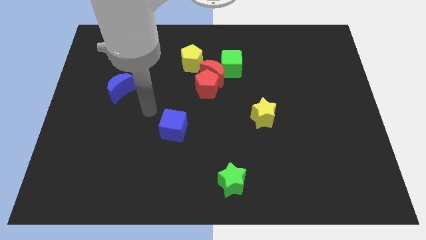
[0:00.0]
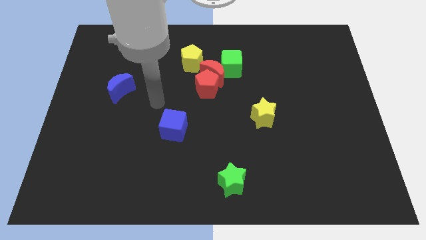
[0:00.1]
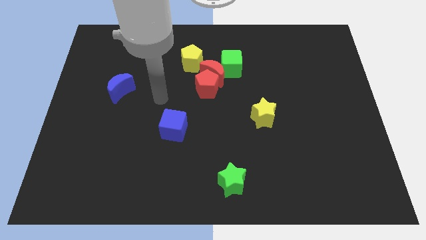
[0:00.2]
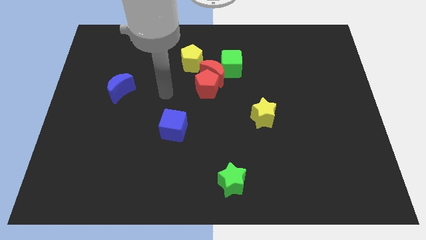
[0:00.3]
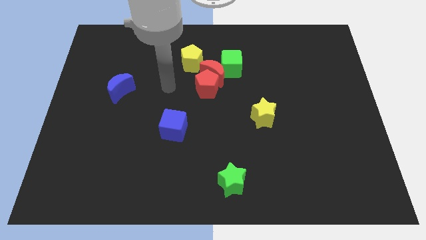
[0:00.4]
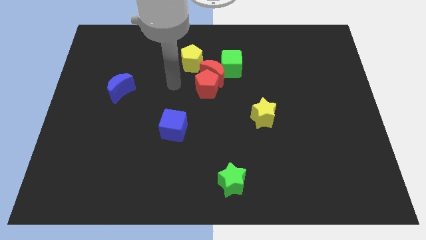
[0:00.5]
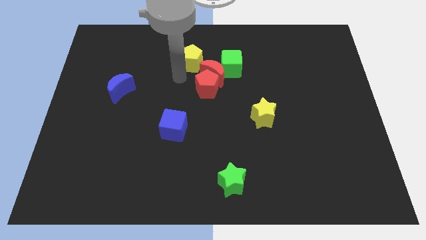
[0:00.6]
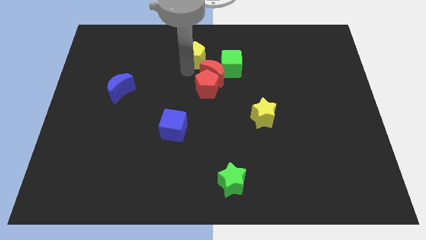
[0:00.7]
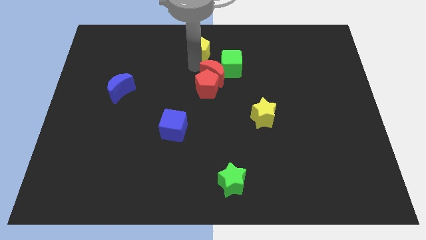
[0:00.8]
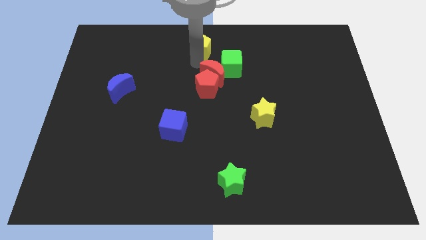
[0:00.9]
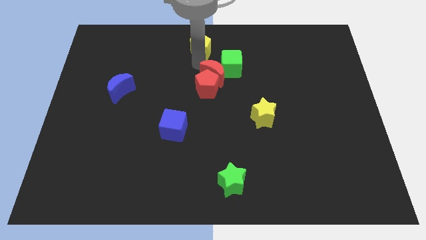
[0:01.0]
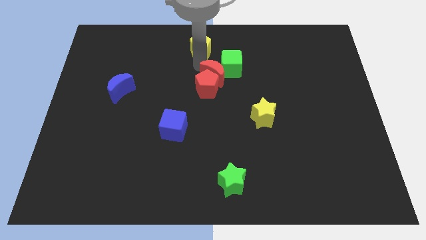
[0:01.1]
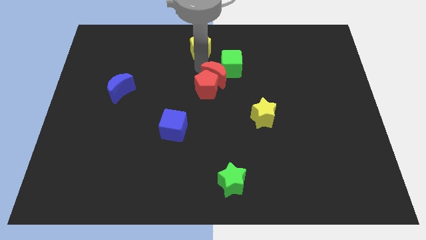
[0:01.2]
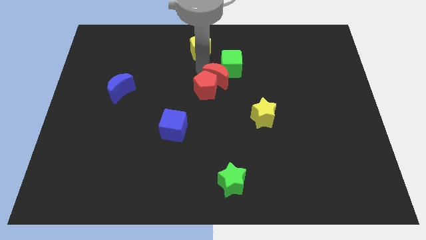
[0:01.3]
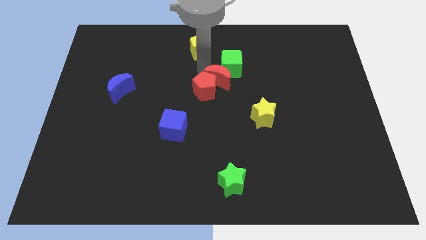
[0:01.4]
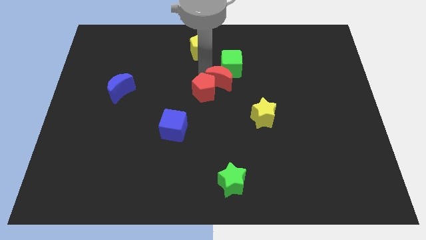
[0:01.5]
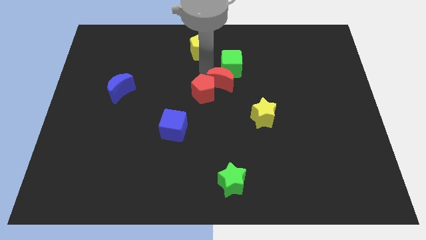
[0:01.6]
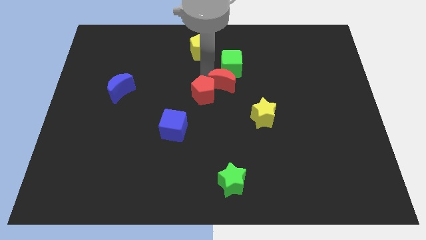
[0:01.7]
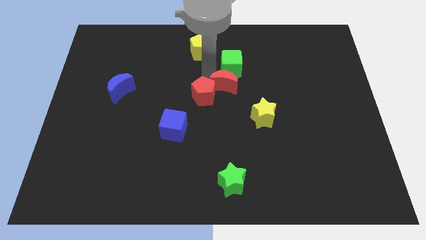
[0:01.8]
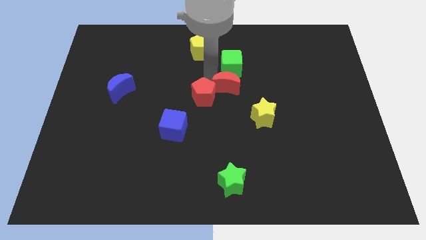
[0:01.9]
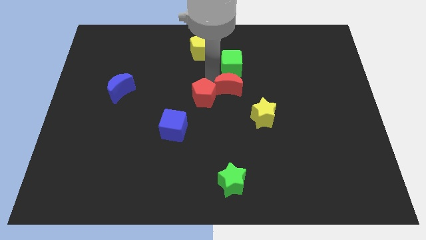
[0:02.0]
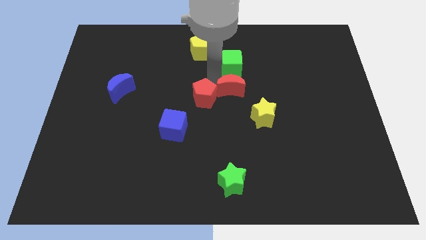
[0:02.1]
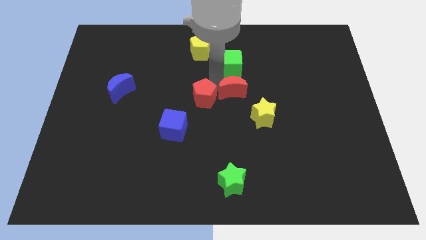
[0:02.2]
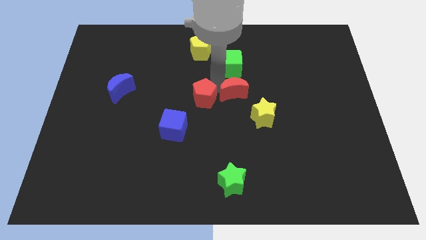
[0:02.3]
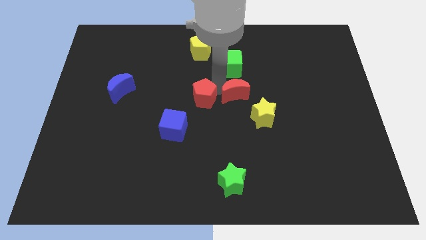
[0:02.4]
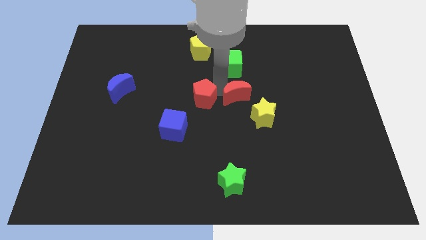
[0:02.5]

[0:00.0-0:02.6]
pull the red moon apart from the clump

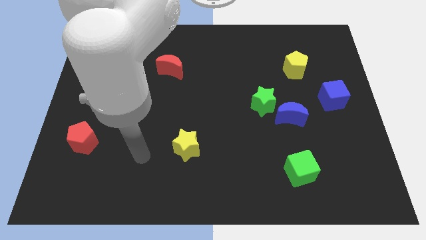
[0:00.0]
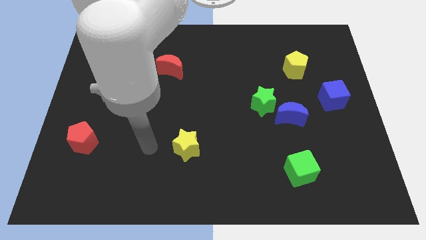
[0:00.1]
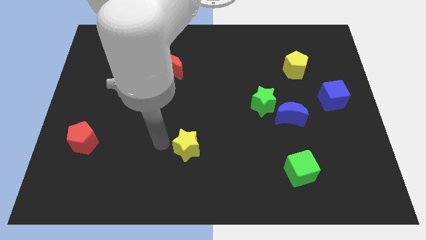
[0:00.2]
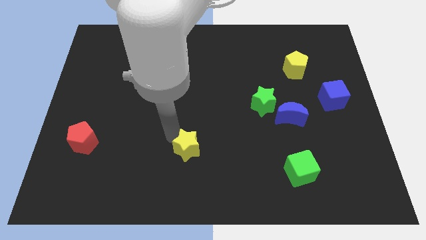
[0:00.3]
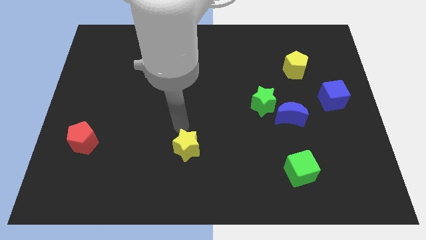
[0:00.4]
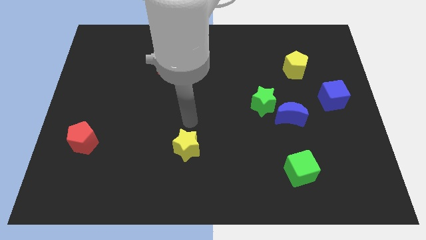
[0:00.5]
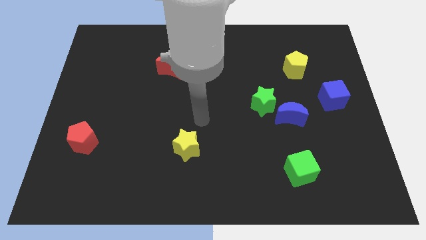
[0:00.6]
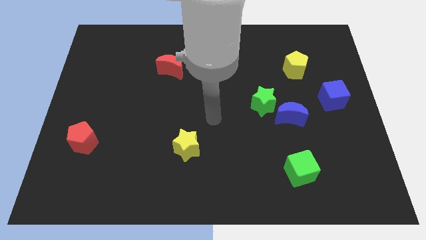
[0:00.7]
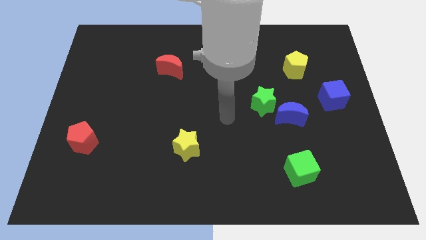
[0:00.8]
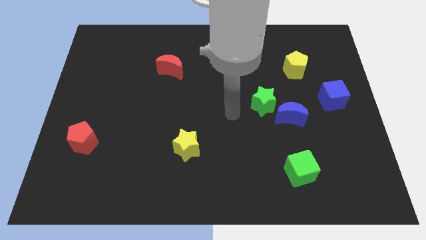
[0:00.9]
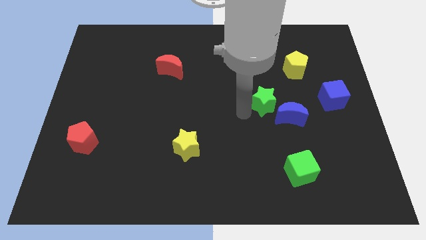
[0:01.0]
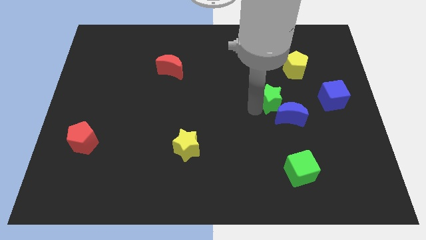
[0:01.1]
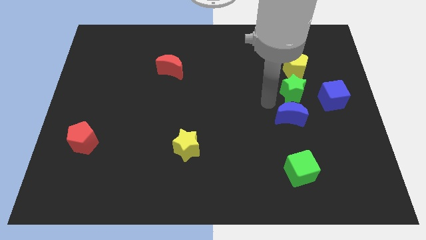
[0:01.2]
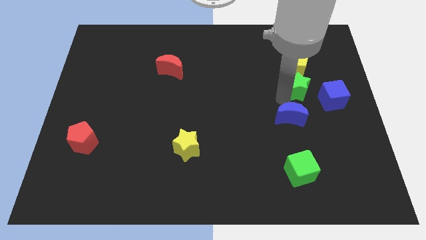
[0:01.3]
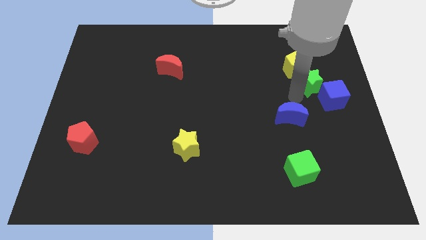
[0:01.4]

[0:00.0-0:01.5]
move the blue moon away from the green star

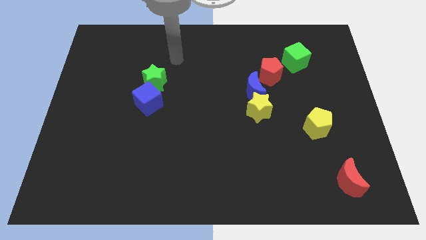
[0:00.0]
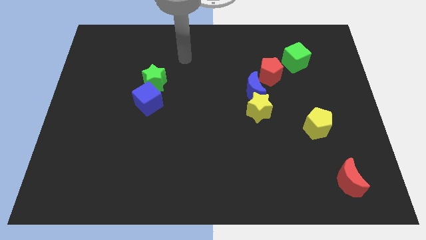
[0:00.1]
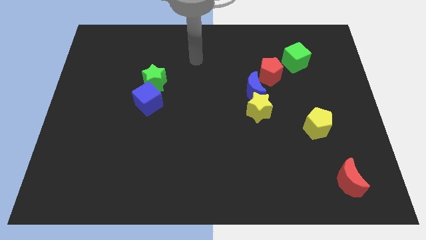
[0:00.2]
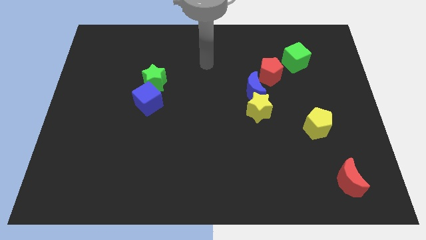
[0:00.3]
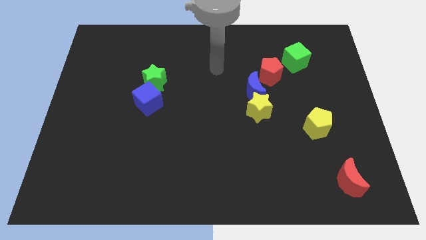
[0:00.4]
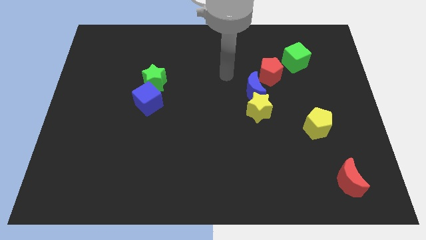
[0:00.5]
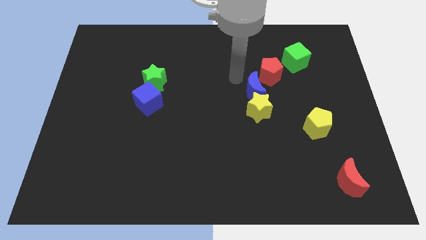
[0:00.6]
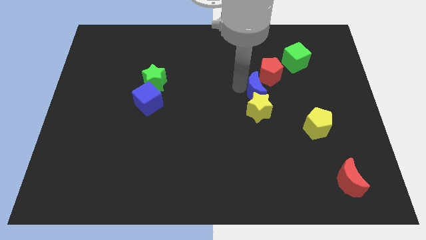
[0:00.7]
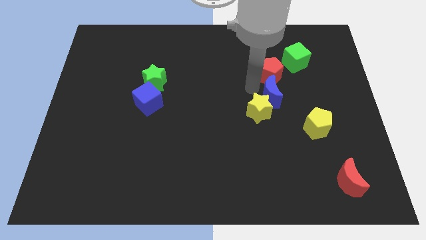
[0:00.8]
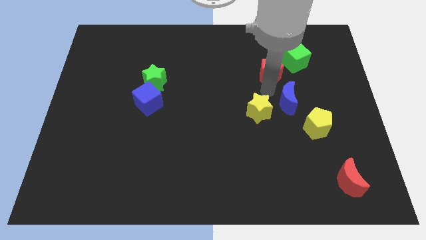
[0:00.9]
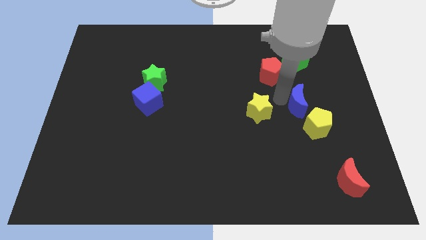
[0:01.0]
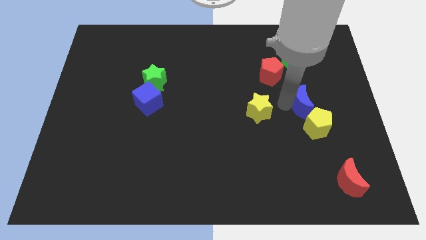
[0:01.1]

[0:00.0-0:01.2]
move the yellow star away from the blue moon

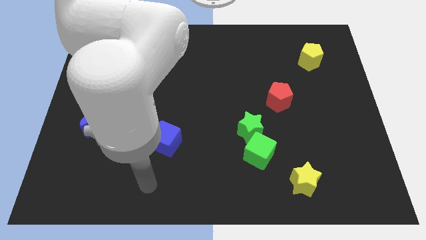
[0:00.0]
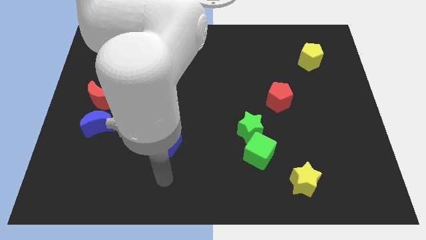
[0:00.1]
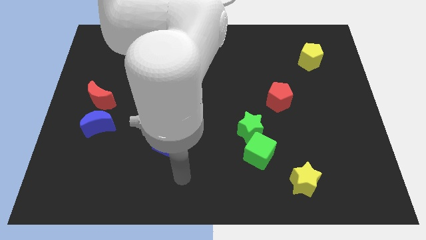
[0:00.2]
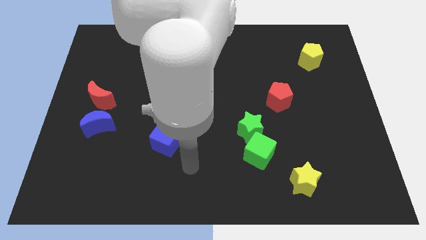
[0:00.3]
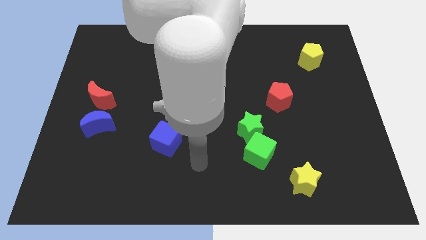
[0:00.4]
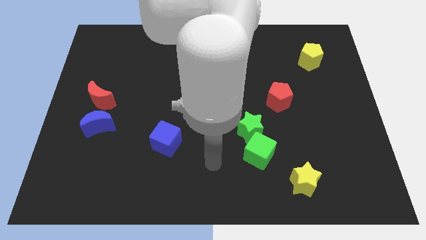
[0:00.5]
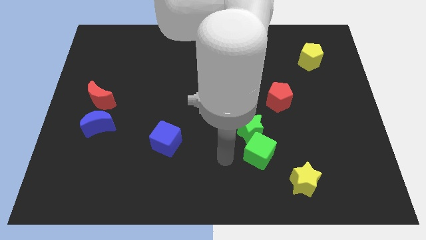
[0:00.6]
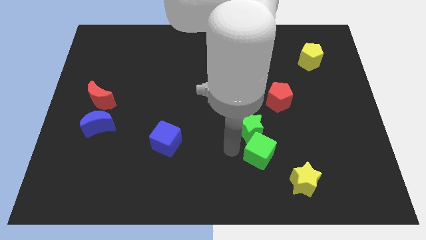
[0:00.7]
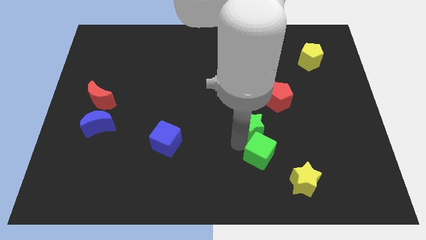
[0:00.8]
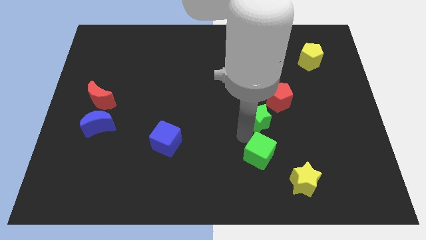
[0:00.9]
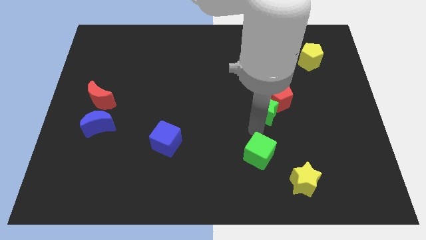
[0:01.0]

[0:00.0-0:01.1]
pull the green cube apart from the green star

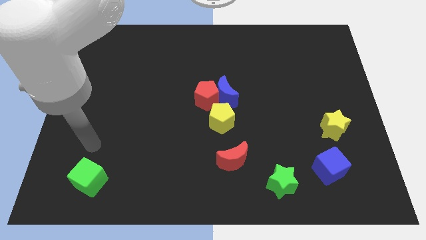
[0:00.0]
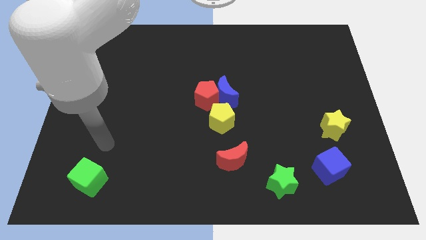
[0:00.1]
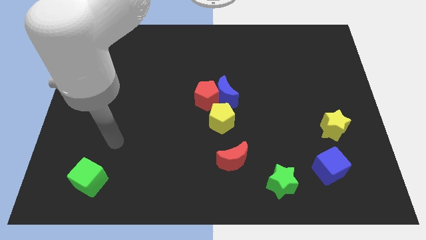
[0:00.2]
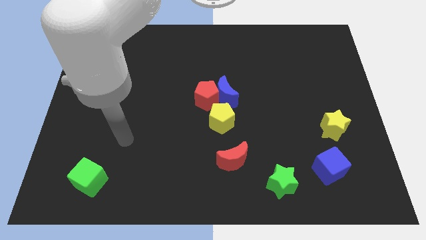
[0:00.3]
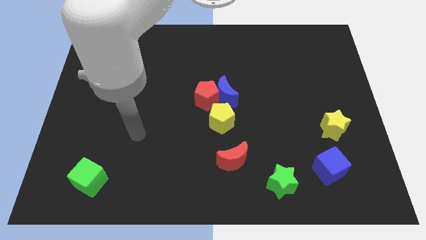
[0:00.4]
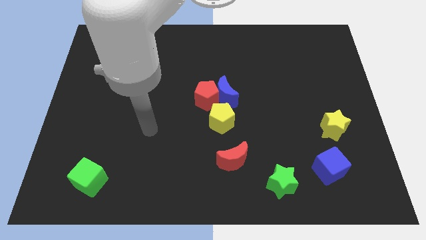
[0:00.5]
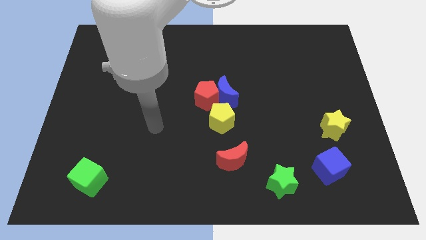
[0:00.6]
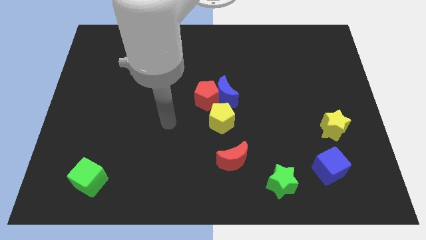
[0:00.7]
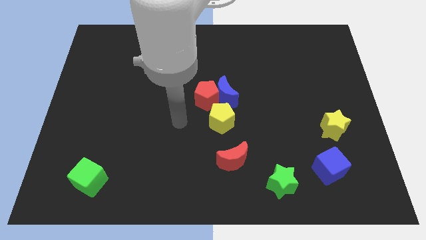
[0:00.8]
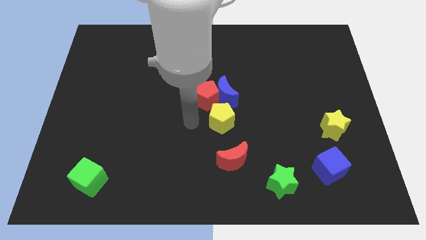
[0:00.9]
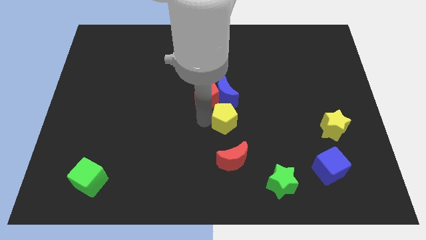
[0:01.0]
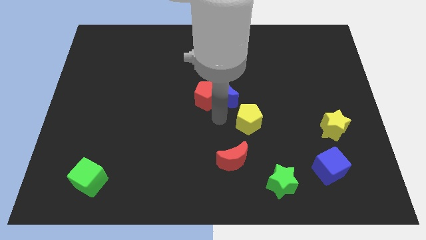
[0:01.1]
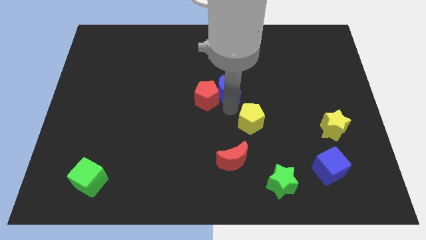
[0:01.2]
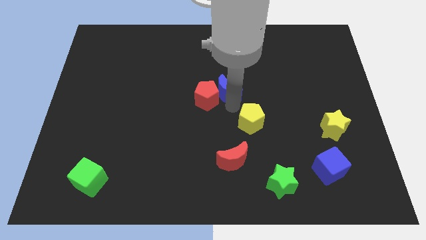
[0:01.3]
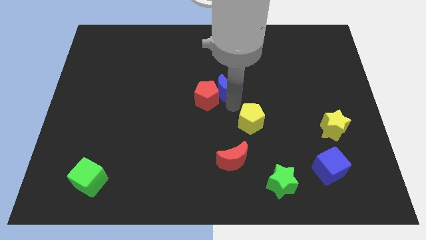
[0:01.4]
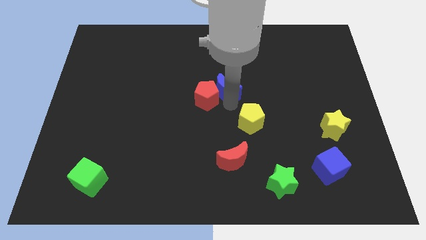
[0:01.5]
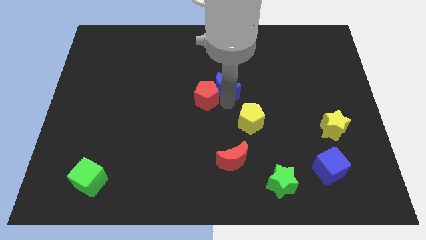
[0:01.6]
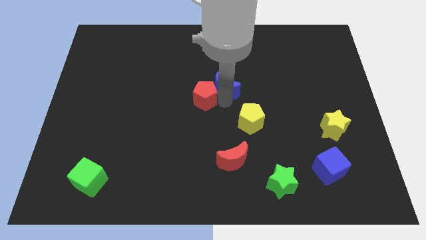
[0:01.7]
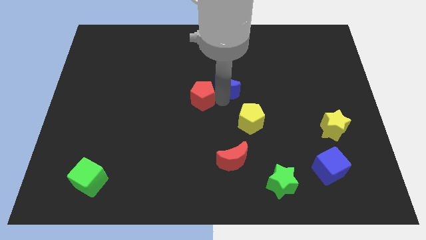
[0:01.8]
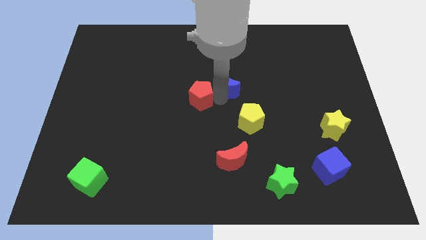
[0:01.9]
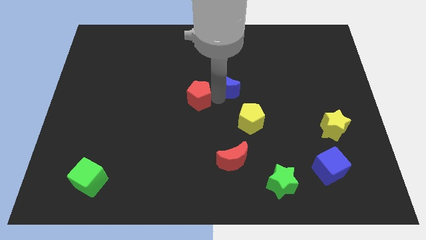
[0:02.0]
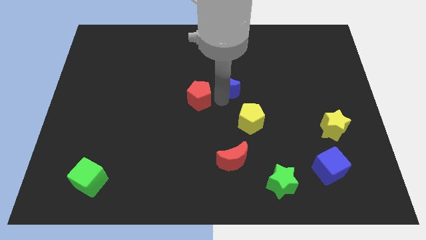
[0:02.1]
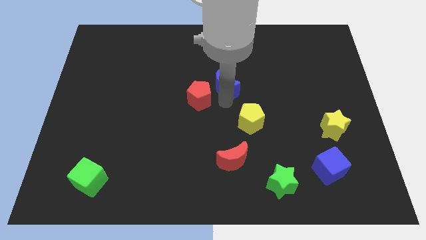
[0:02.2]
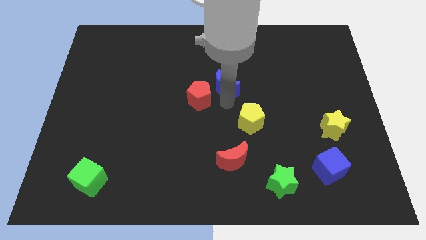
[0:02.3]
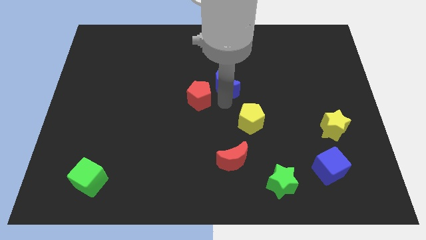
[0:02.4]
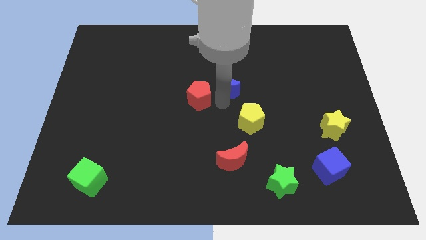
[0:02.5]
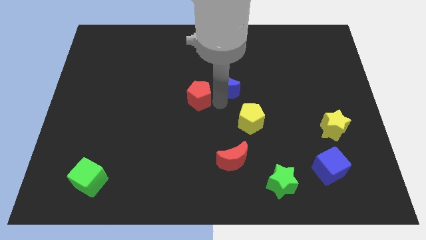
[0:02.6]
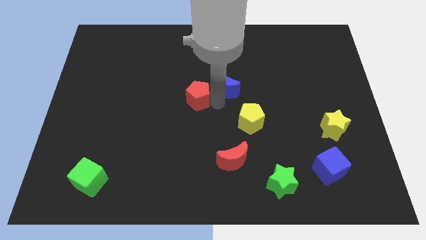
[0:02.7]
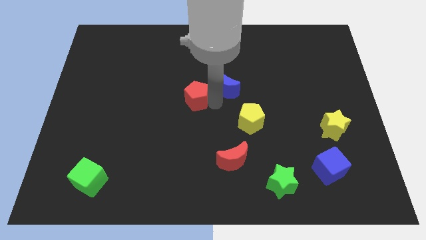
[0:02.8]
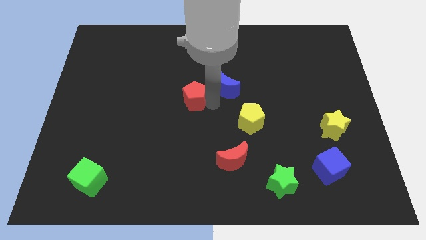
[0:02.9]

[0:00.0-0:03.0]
separate the red pentagon from the blue moon and yellow pentagon
